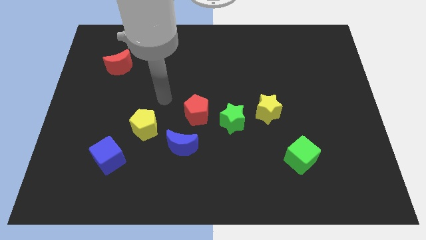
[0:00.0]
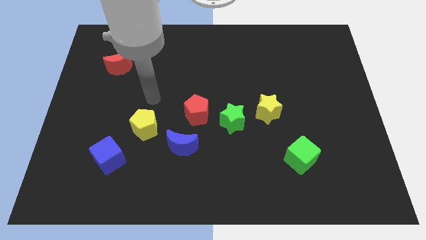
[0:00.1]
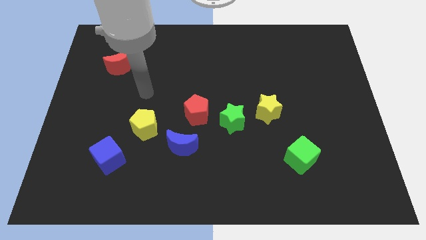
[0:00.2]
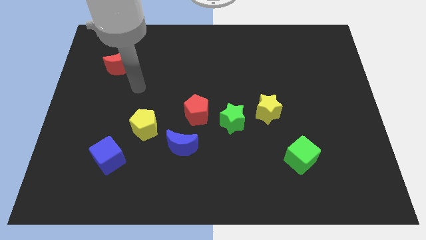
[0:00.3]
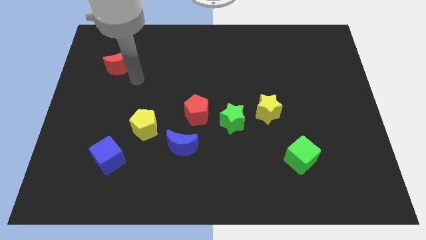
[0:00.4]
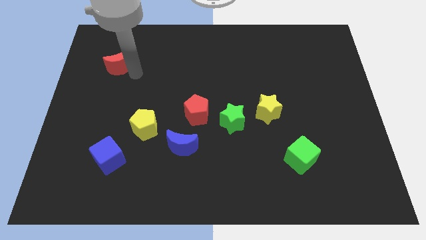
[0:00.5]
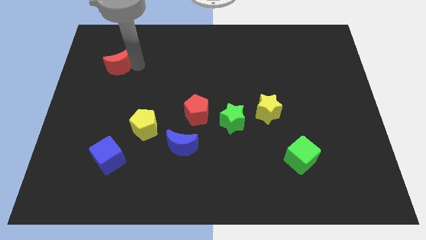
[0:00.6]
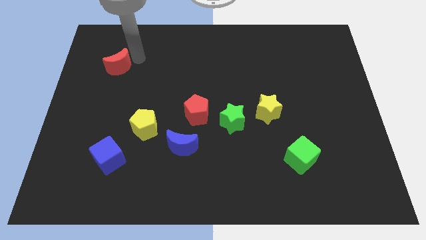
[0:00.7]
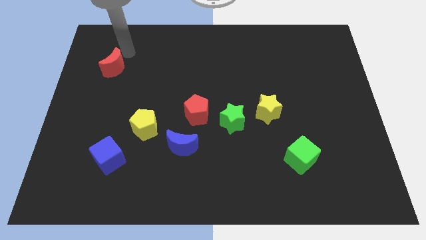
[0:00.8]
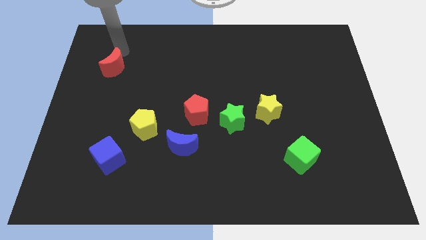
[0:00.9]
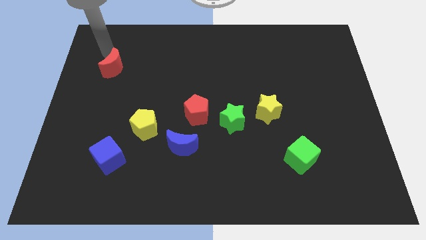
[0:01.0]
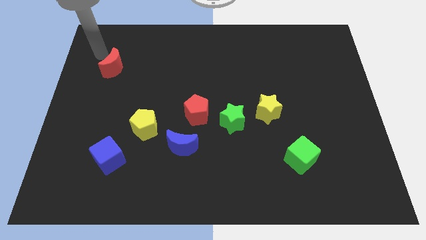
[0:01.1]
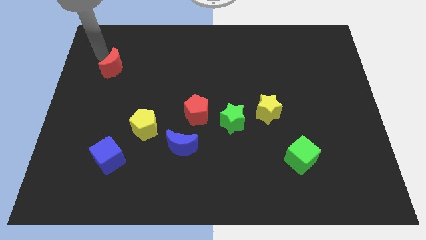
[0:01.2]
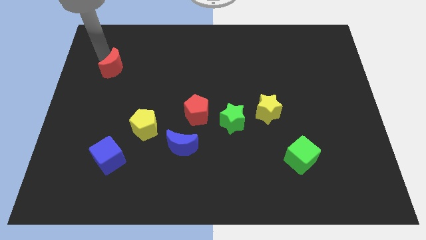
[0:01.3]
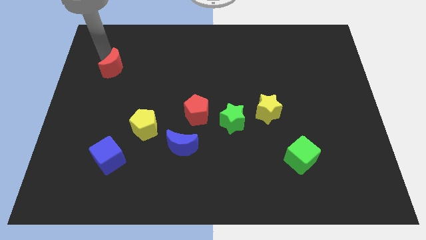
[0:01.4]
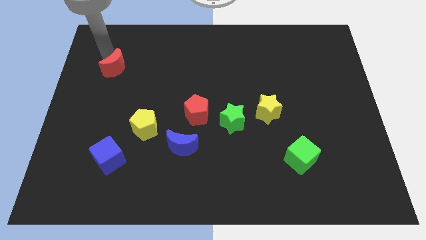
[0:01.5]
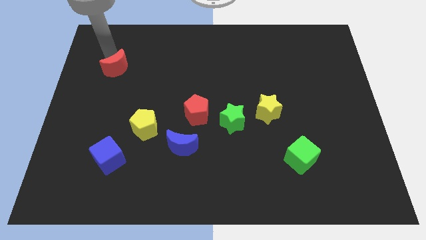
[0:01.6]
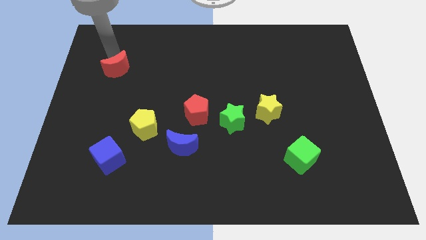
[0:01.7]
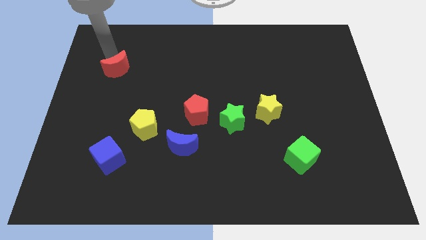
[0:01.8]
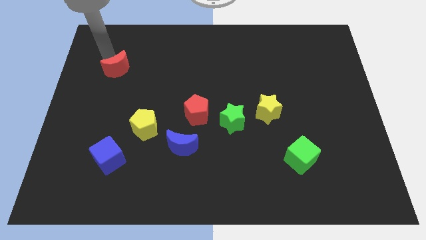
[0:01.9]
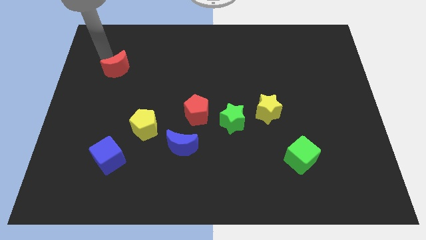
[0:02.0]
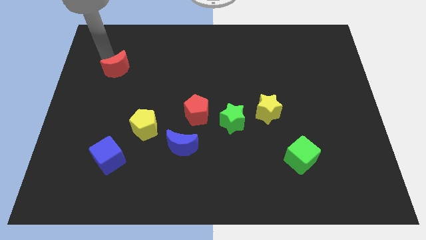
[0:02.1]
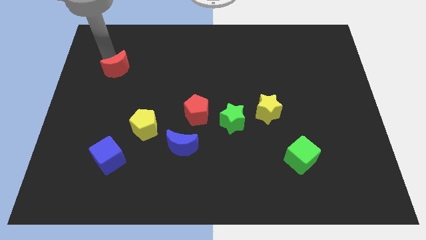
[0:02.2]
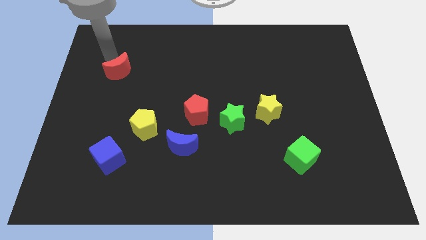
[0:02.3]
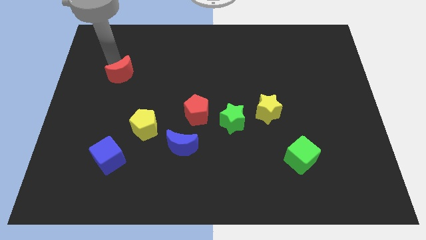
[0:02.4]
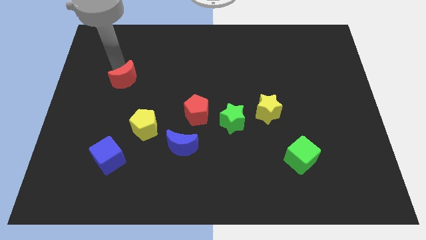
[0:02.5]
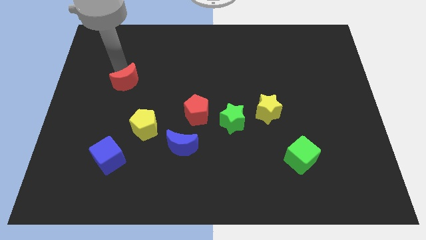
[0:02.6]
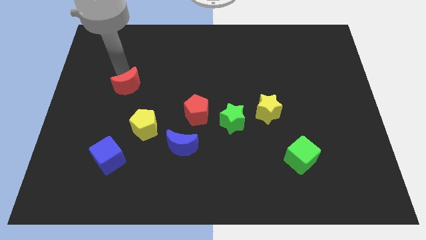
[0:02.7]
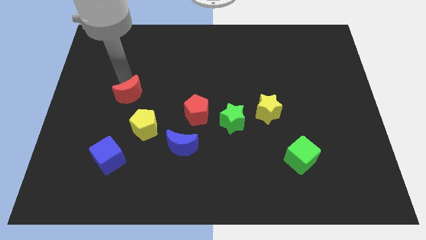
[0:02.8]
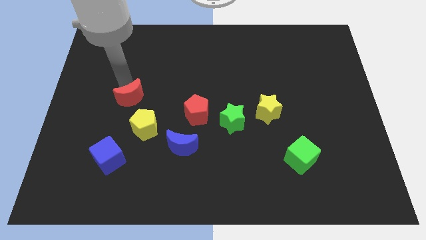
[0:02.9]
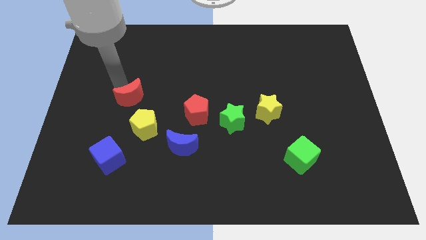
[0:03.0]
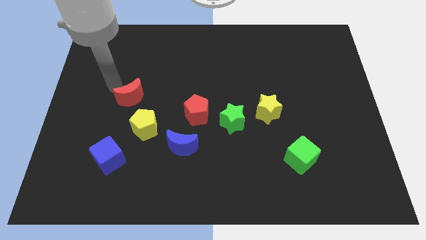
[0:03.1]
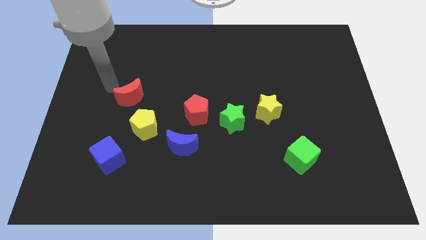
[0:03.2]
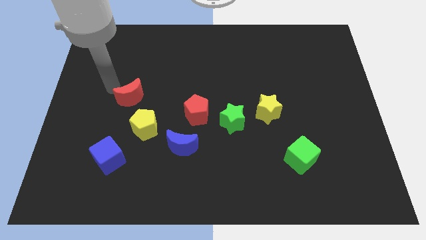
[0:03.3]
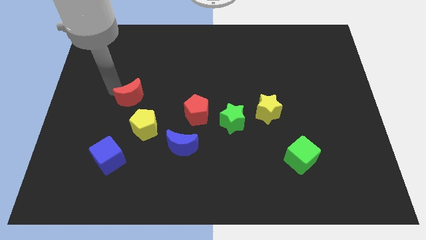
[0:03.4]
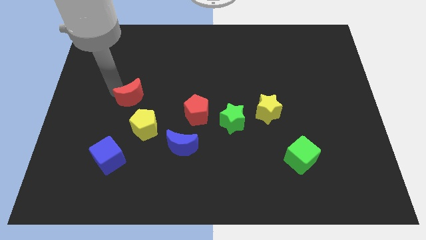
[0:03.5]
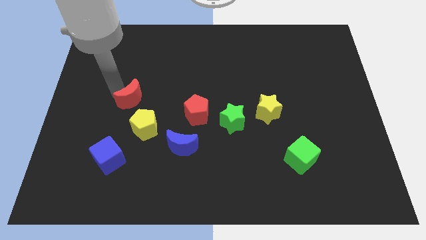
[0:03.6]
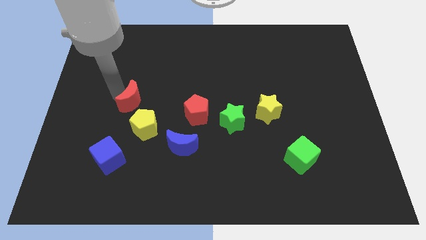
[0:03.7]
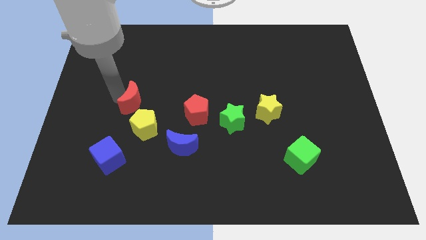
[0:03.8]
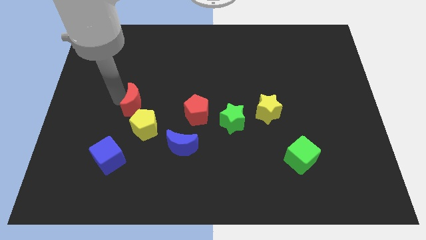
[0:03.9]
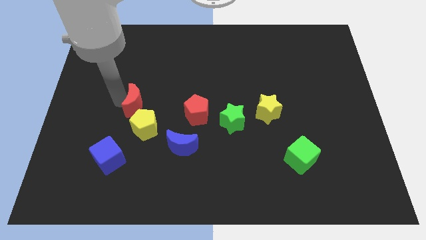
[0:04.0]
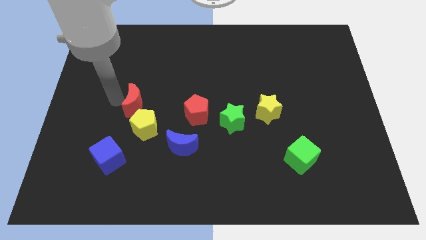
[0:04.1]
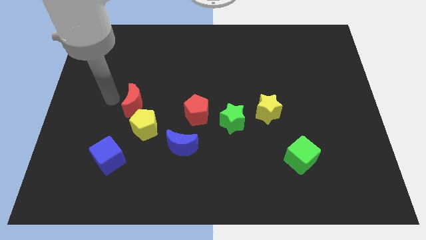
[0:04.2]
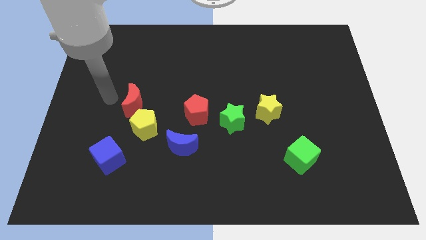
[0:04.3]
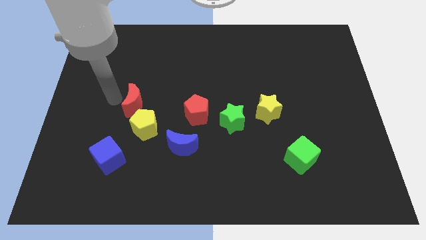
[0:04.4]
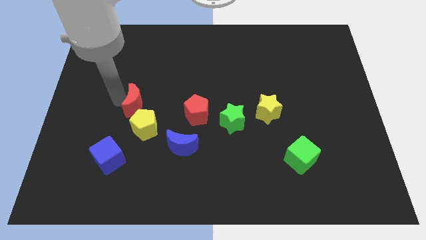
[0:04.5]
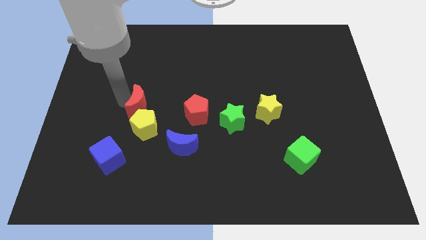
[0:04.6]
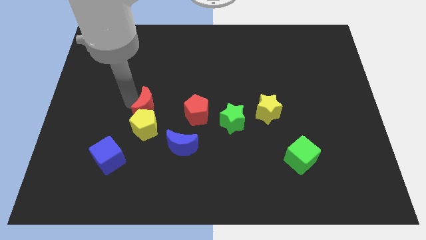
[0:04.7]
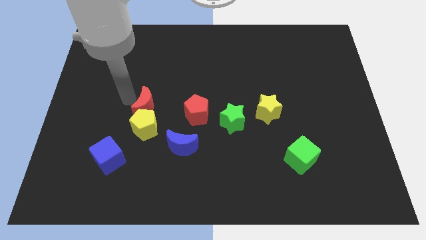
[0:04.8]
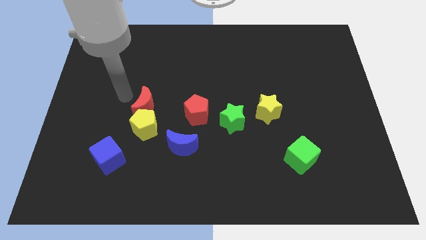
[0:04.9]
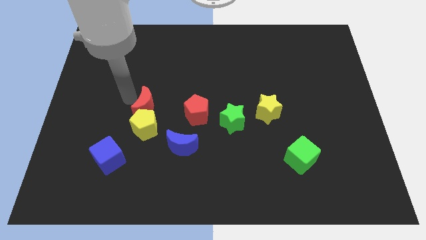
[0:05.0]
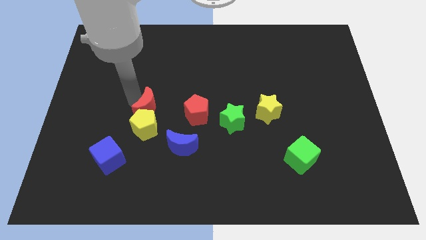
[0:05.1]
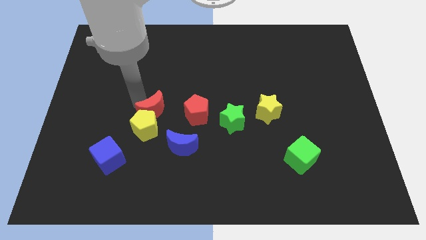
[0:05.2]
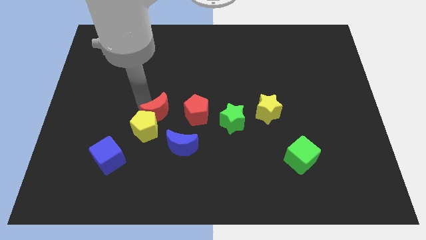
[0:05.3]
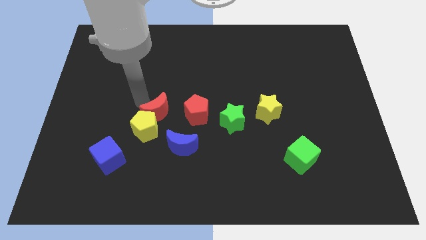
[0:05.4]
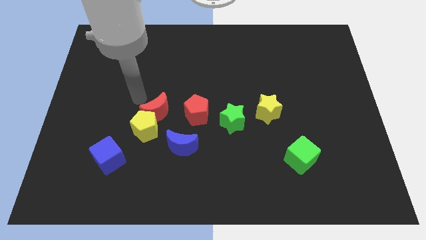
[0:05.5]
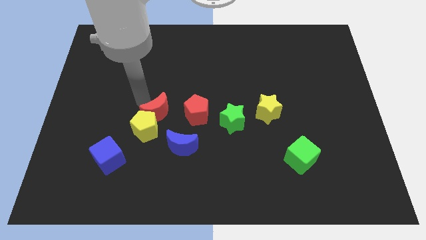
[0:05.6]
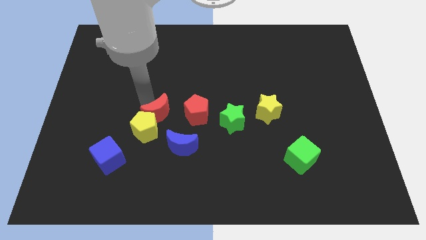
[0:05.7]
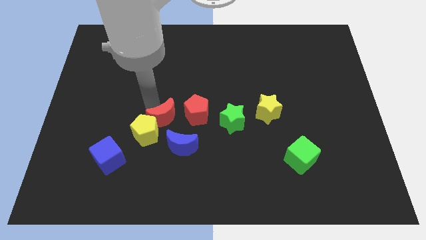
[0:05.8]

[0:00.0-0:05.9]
slide the red moon downwards and right

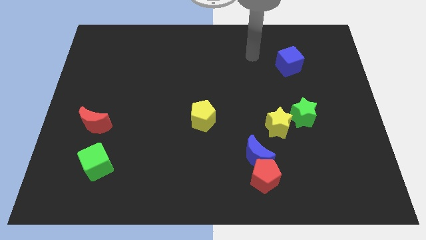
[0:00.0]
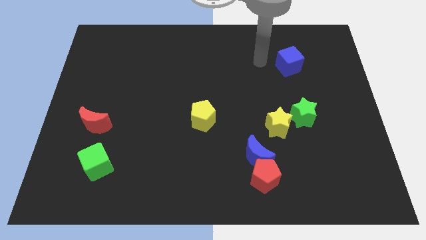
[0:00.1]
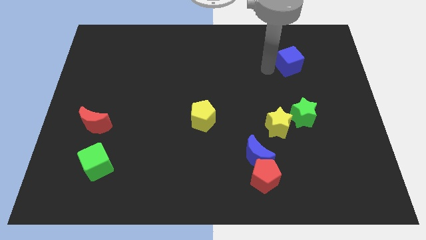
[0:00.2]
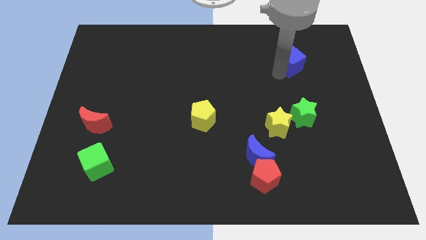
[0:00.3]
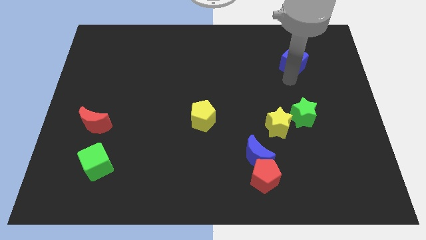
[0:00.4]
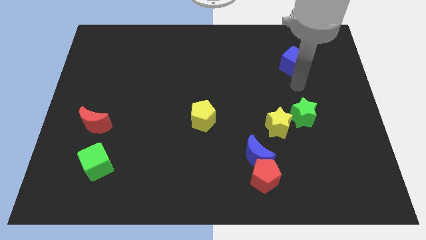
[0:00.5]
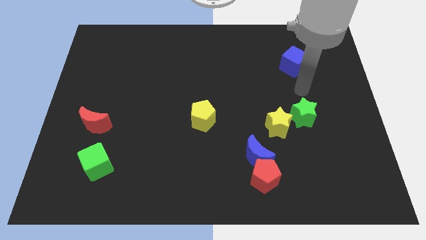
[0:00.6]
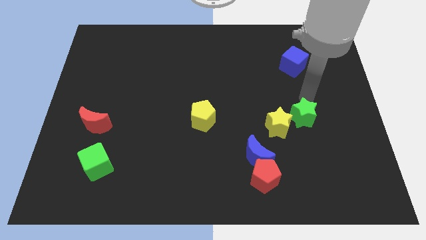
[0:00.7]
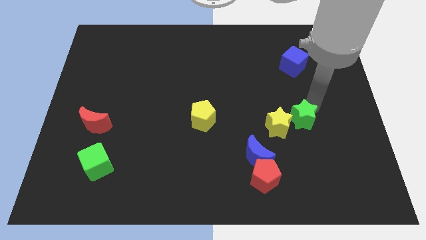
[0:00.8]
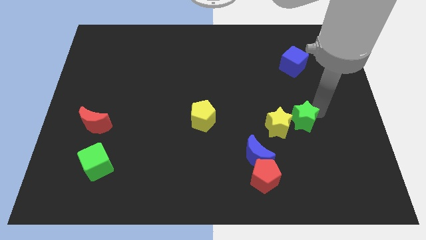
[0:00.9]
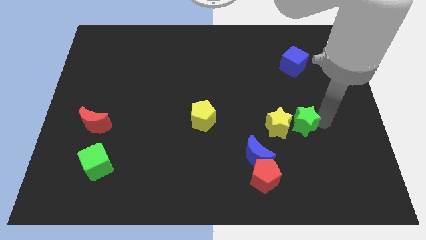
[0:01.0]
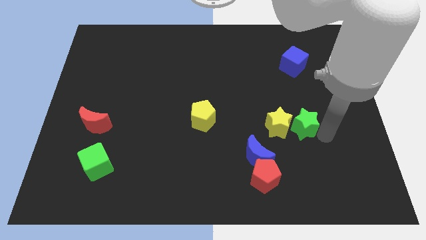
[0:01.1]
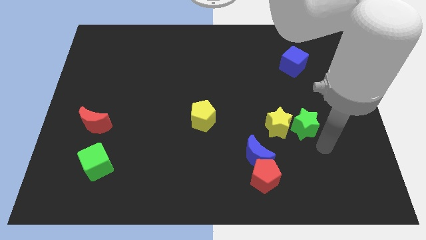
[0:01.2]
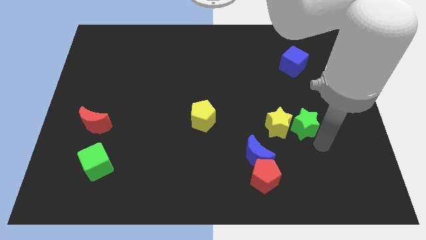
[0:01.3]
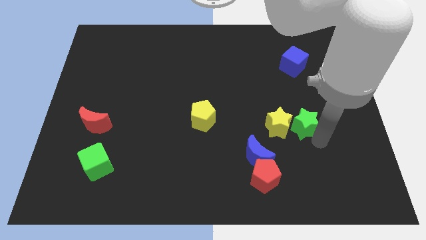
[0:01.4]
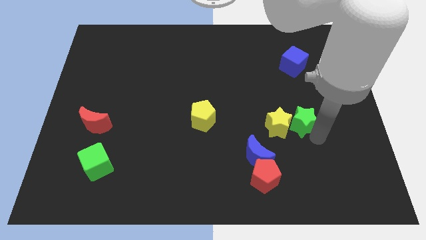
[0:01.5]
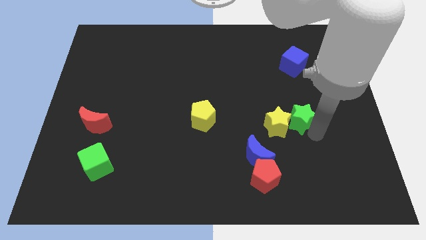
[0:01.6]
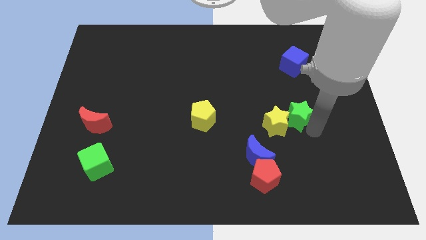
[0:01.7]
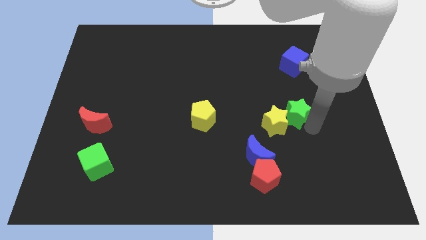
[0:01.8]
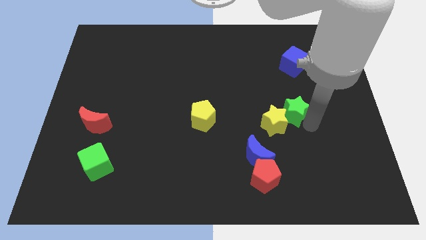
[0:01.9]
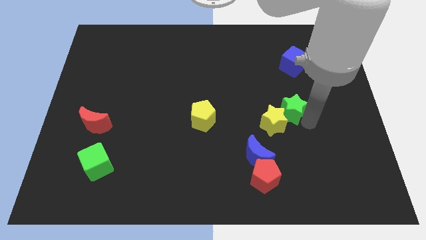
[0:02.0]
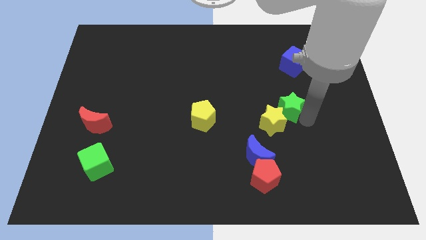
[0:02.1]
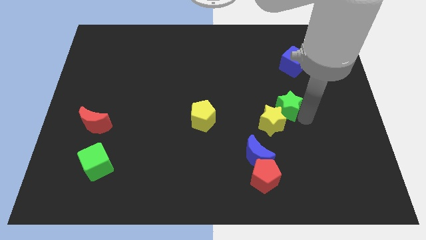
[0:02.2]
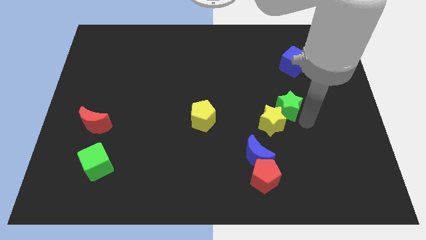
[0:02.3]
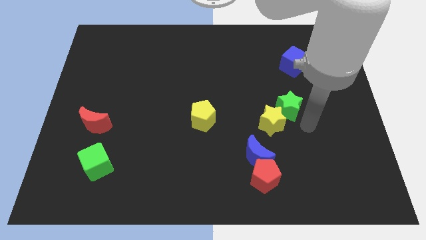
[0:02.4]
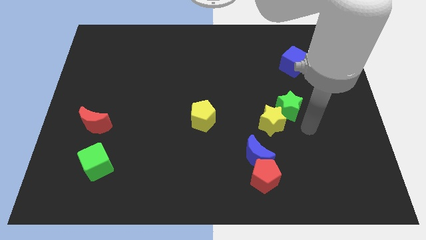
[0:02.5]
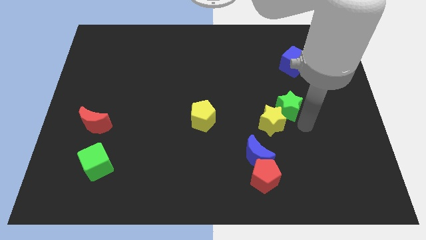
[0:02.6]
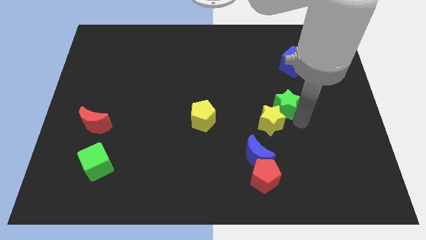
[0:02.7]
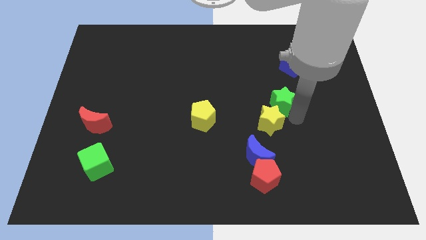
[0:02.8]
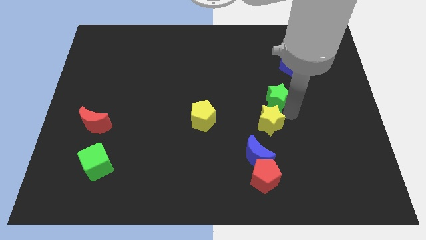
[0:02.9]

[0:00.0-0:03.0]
slide the green star up and left diagonally somewhat

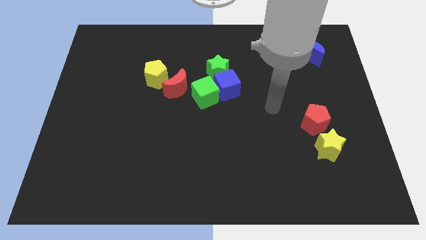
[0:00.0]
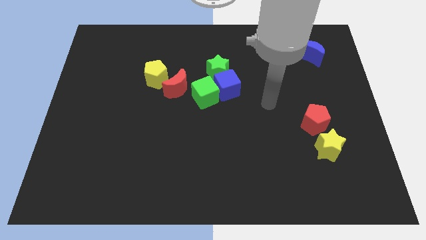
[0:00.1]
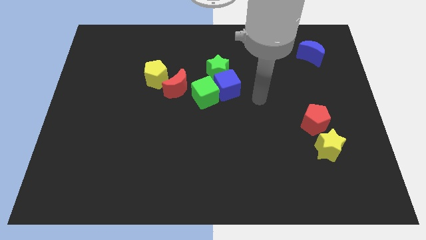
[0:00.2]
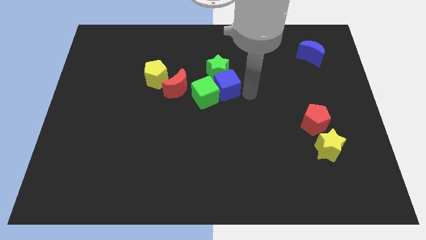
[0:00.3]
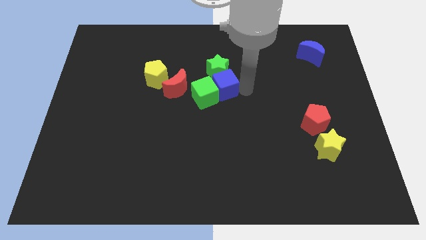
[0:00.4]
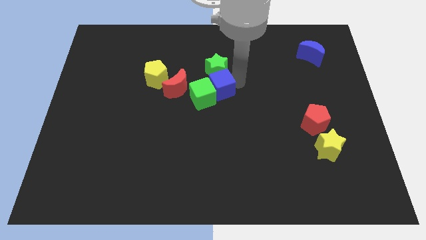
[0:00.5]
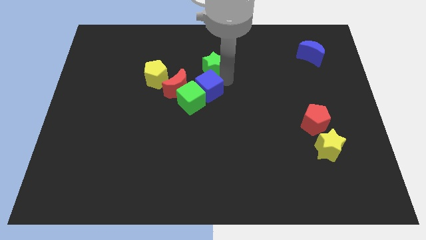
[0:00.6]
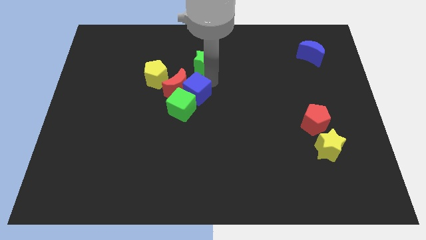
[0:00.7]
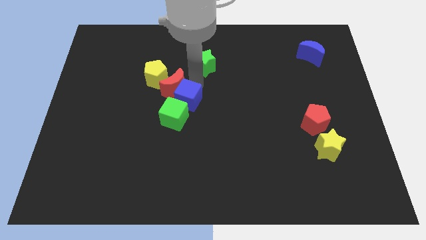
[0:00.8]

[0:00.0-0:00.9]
slightly move the green cube down and to the left diagonally
